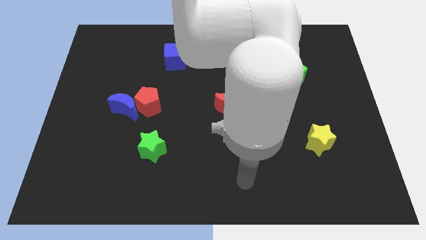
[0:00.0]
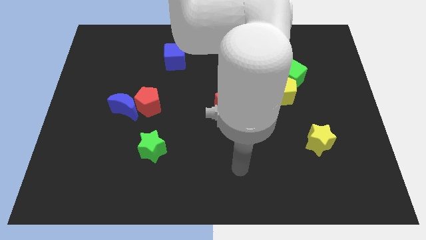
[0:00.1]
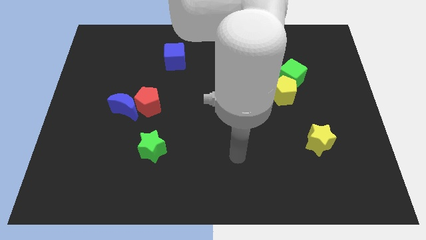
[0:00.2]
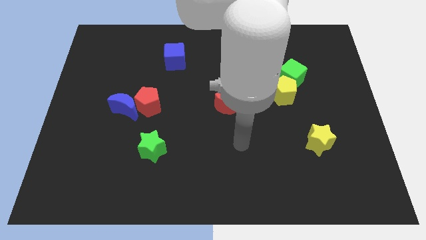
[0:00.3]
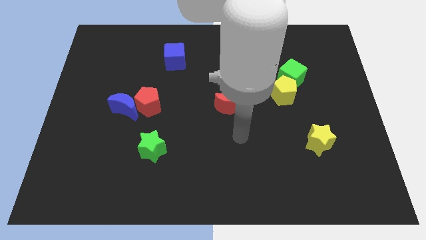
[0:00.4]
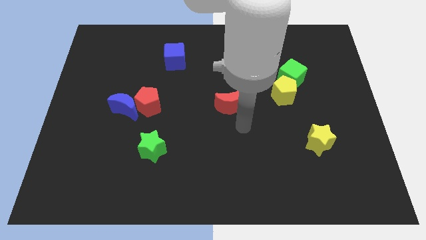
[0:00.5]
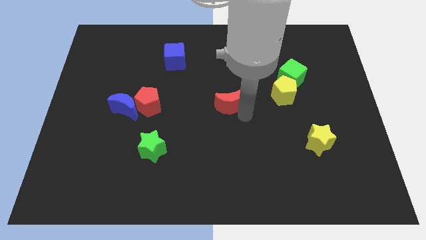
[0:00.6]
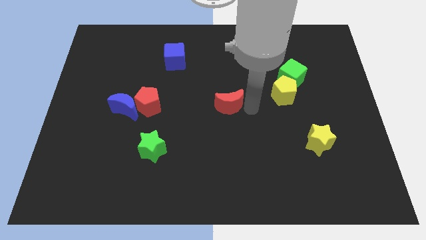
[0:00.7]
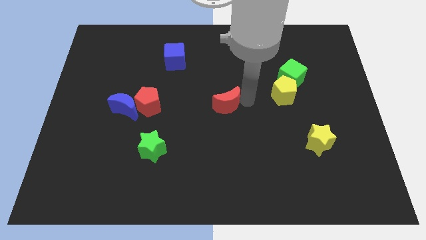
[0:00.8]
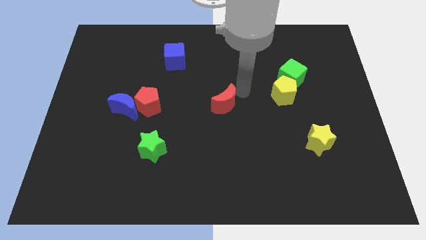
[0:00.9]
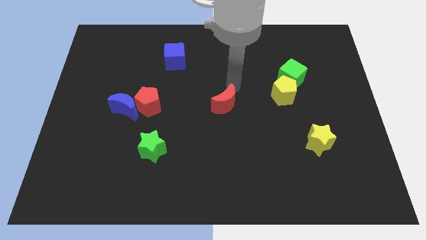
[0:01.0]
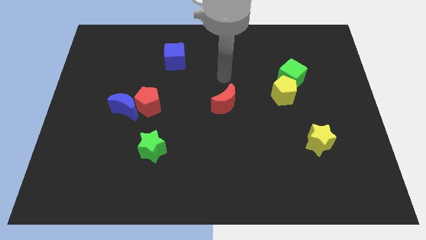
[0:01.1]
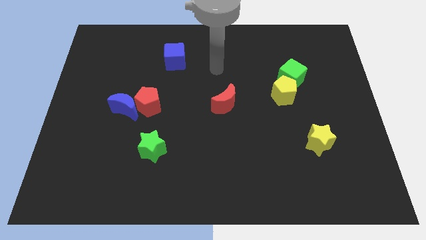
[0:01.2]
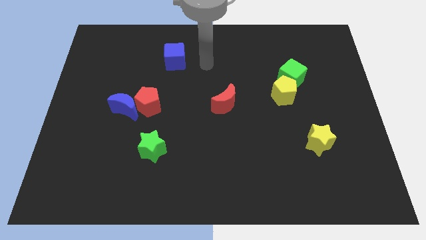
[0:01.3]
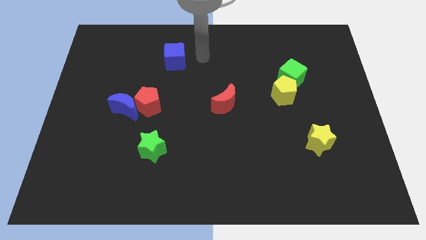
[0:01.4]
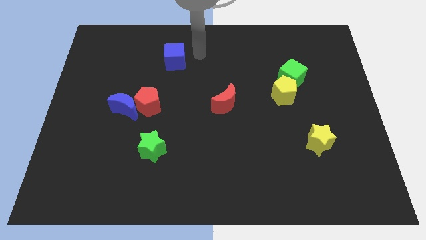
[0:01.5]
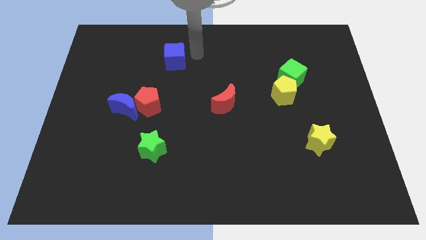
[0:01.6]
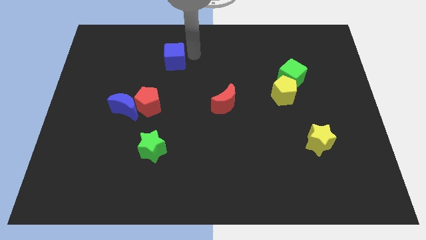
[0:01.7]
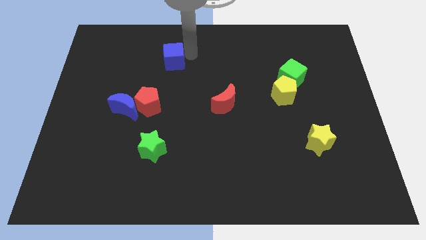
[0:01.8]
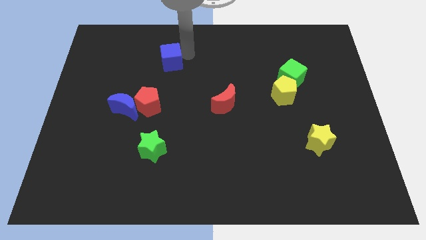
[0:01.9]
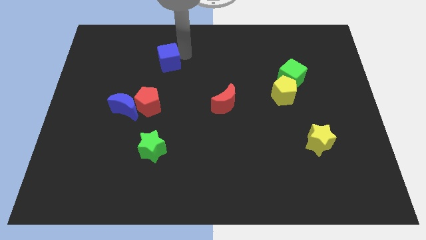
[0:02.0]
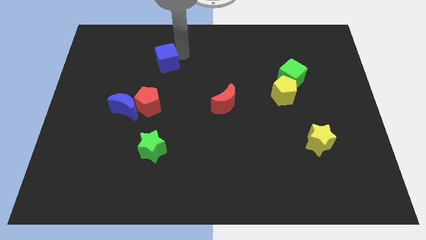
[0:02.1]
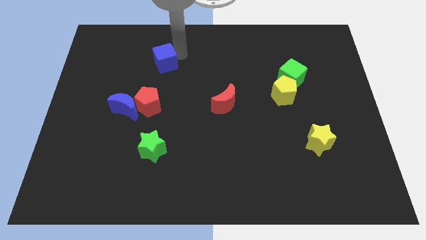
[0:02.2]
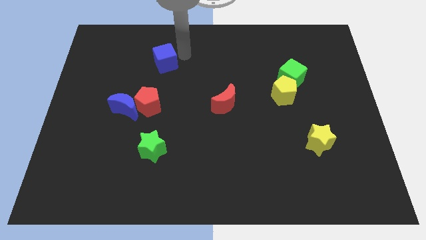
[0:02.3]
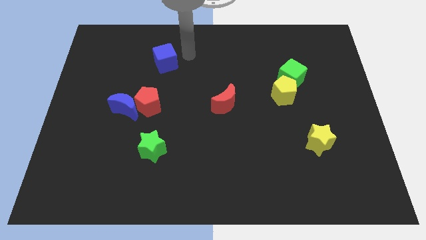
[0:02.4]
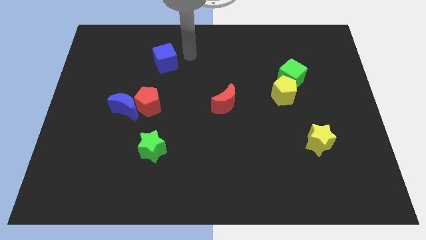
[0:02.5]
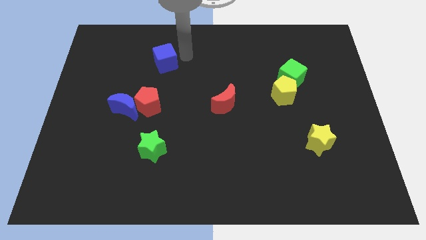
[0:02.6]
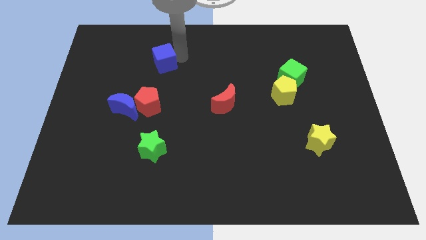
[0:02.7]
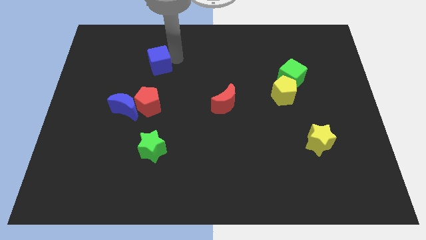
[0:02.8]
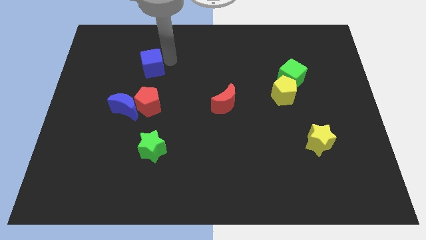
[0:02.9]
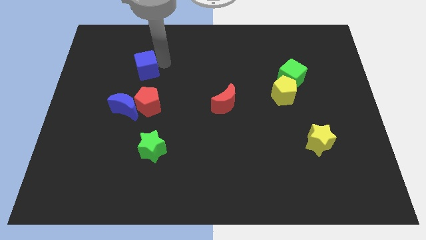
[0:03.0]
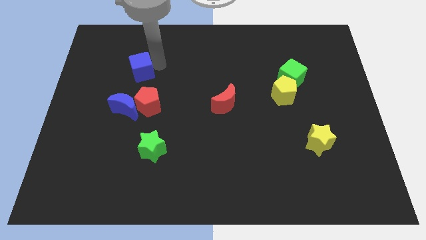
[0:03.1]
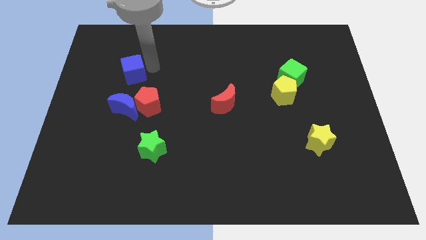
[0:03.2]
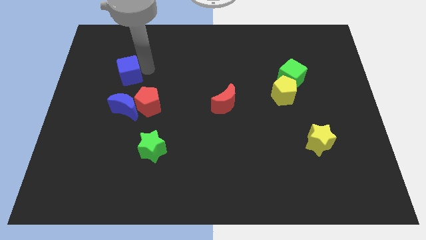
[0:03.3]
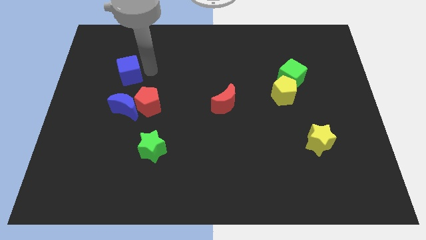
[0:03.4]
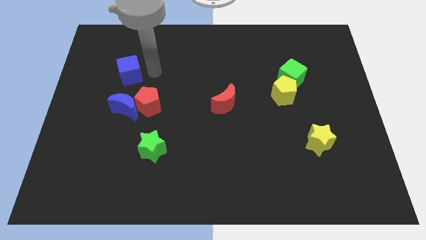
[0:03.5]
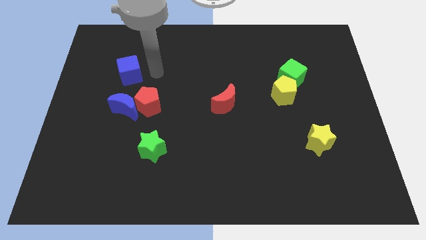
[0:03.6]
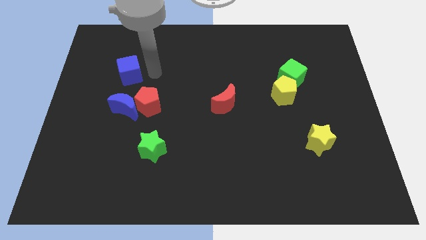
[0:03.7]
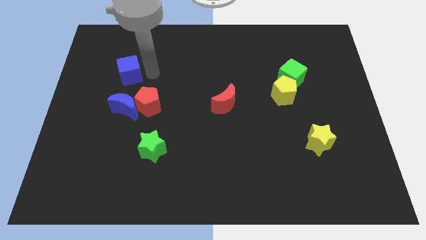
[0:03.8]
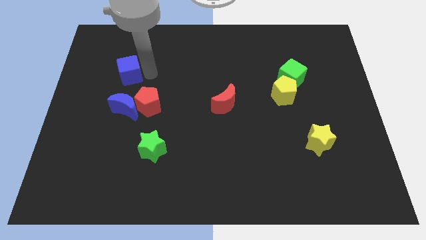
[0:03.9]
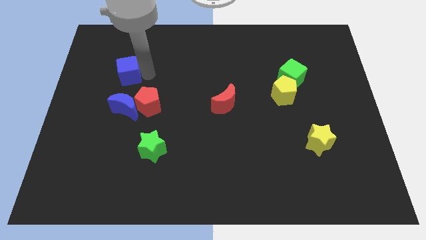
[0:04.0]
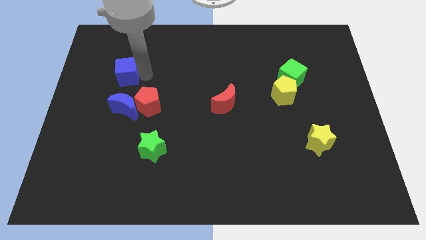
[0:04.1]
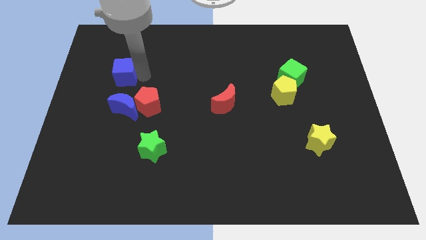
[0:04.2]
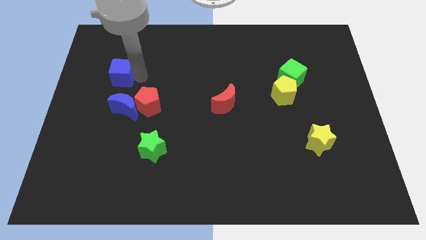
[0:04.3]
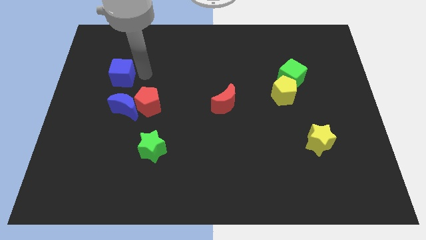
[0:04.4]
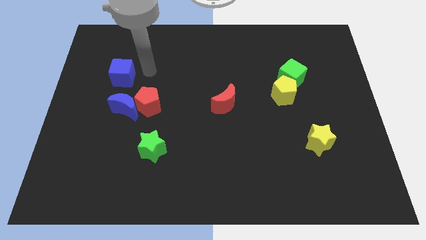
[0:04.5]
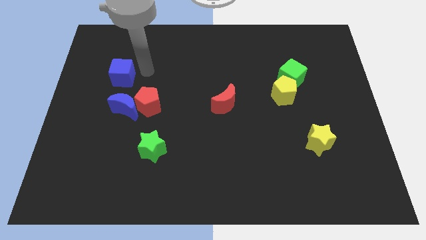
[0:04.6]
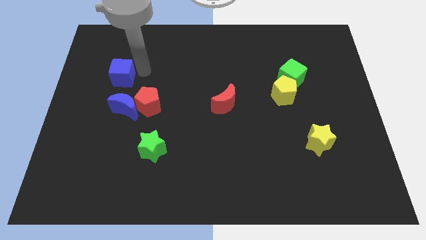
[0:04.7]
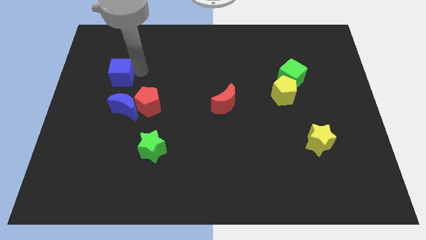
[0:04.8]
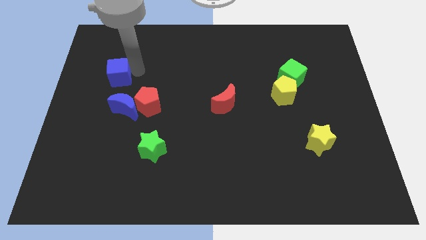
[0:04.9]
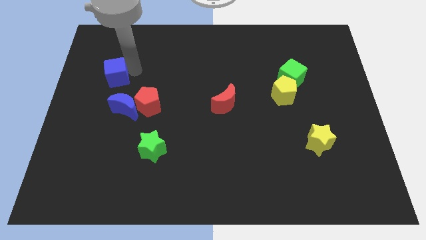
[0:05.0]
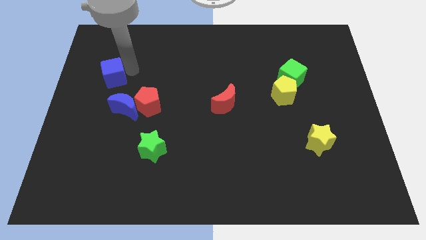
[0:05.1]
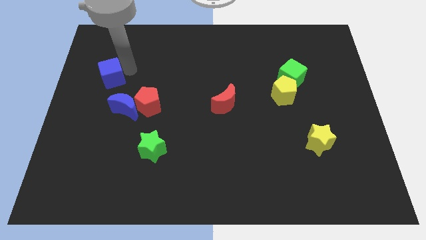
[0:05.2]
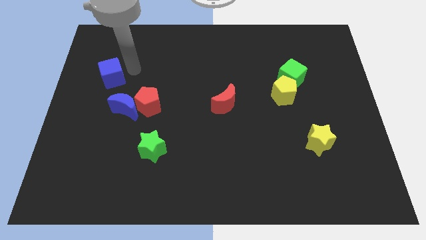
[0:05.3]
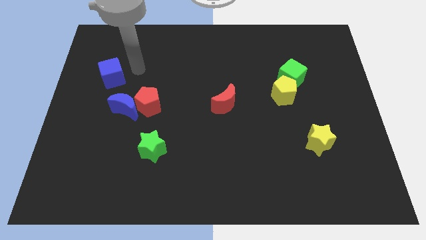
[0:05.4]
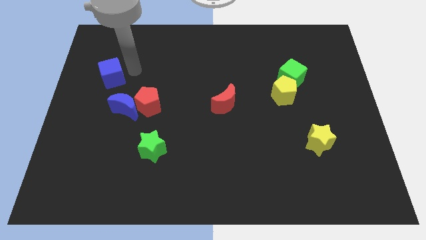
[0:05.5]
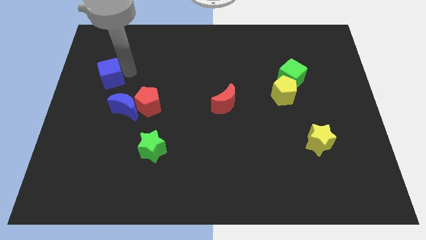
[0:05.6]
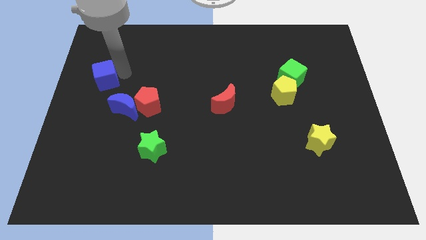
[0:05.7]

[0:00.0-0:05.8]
push the blue cube to the left side of the board
